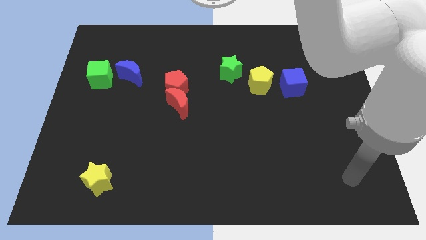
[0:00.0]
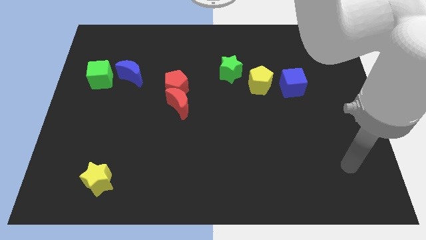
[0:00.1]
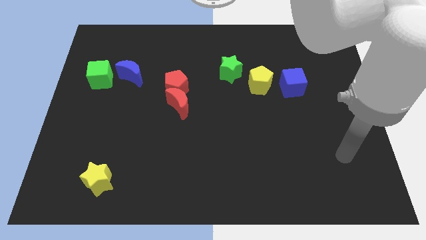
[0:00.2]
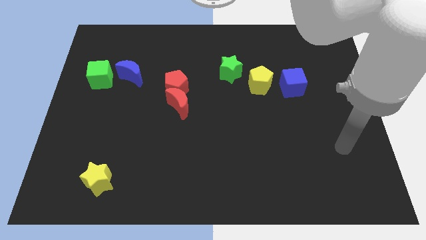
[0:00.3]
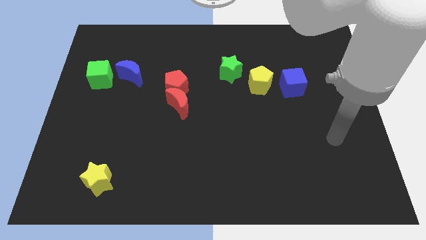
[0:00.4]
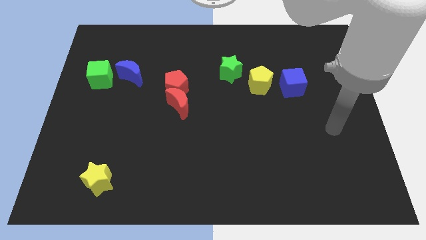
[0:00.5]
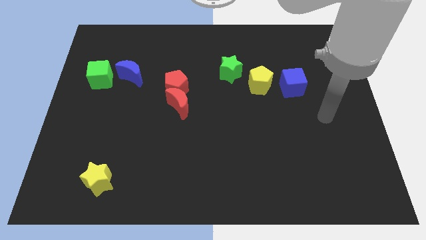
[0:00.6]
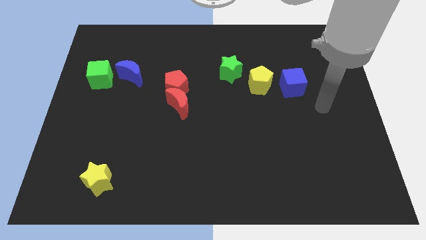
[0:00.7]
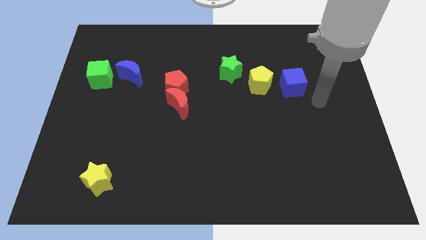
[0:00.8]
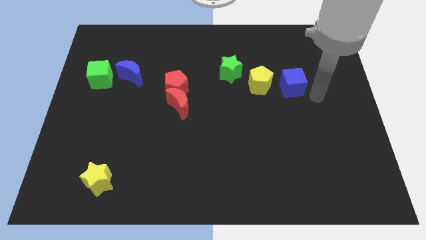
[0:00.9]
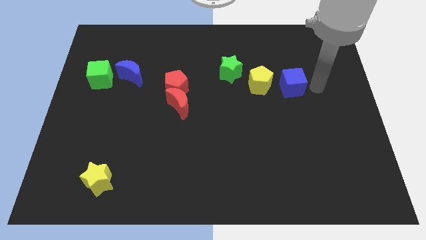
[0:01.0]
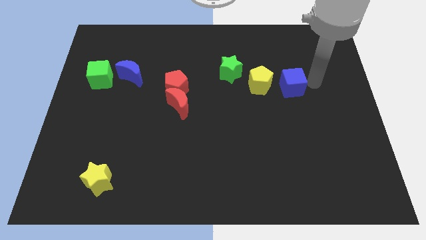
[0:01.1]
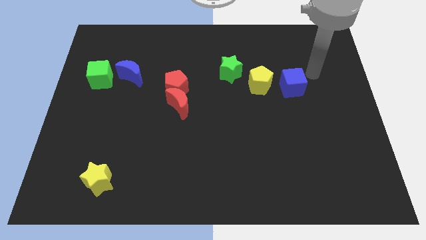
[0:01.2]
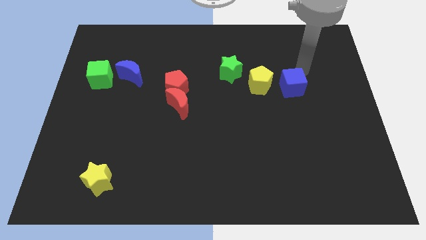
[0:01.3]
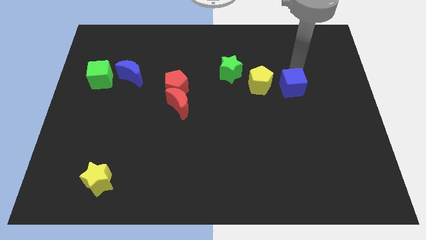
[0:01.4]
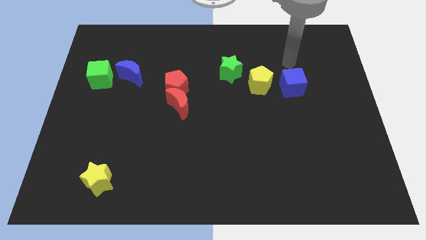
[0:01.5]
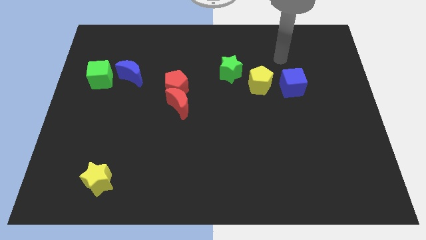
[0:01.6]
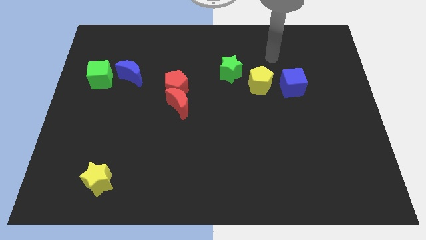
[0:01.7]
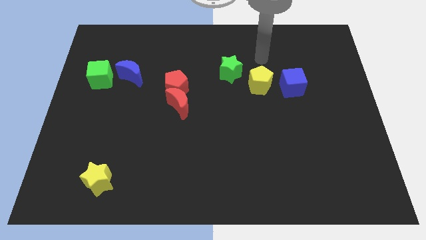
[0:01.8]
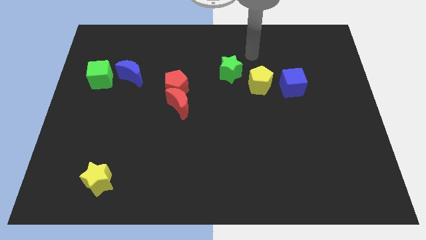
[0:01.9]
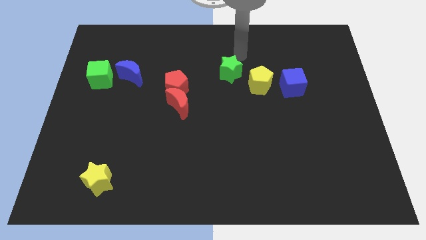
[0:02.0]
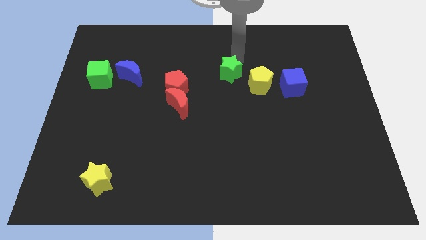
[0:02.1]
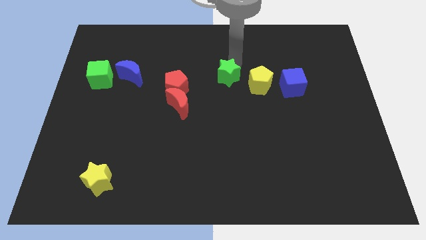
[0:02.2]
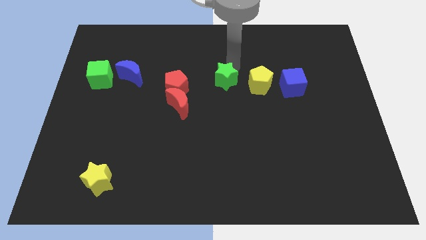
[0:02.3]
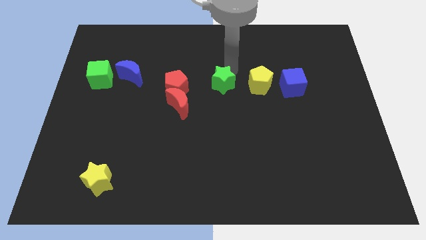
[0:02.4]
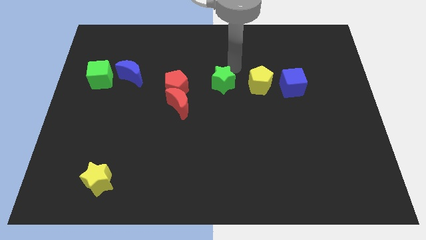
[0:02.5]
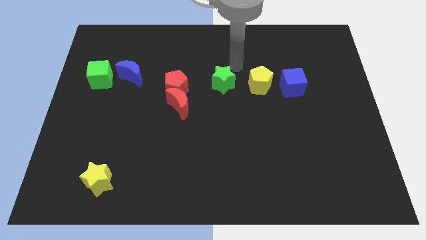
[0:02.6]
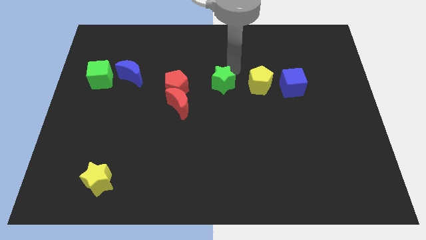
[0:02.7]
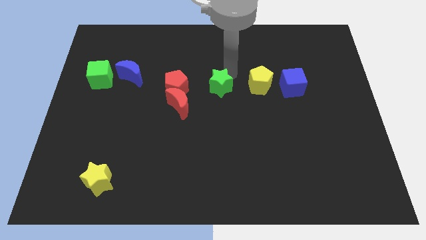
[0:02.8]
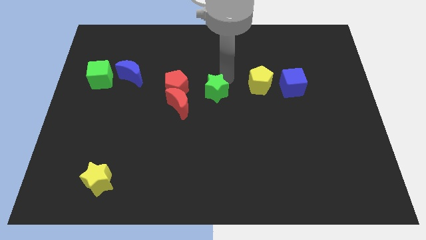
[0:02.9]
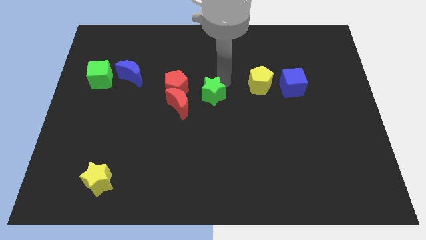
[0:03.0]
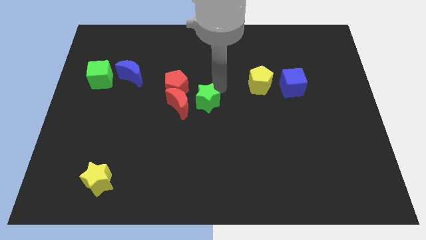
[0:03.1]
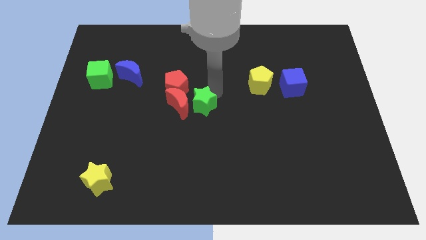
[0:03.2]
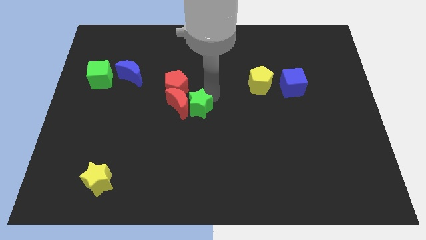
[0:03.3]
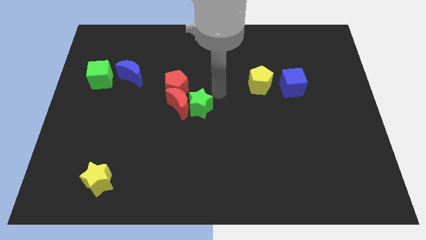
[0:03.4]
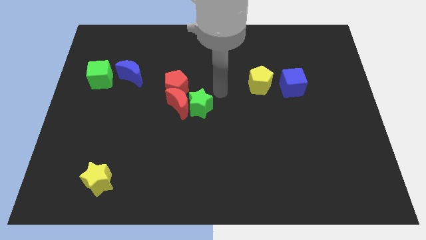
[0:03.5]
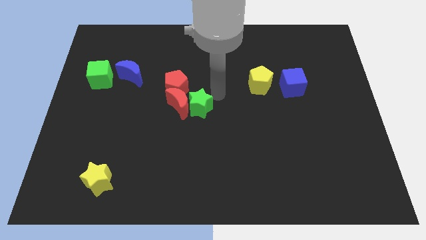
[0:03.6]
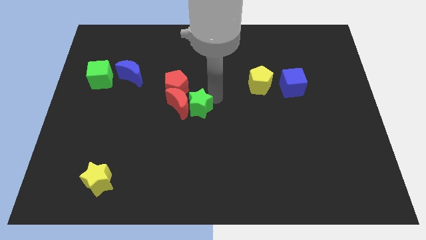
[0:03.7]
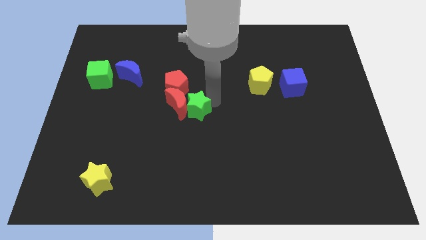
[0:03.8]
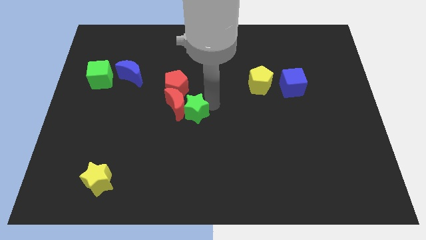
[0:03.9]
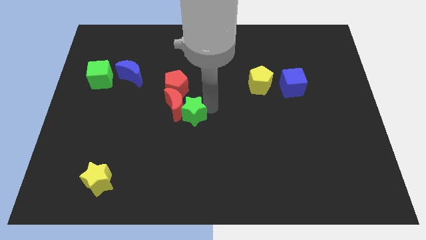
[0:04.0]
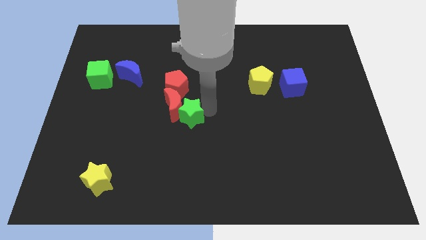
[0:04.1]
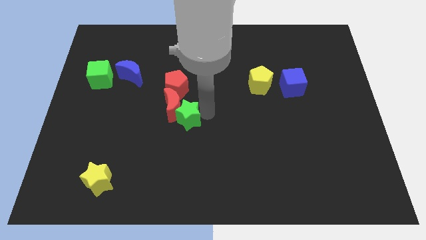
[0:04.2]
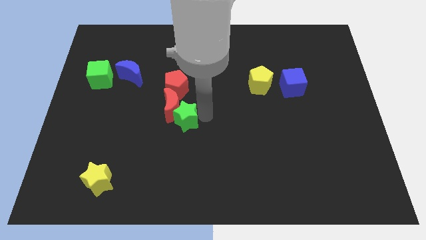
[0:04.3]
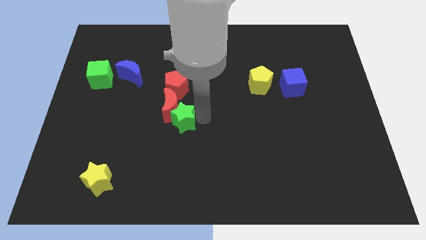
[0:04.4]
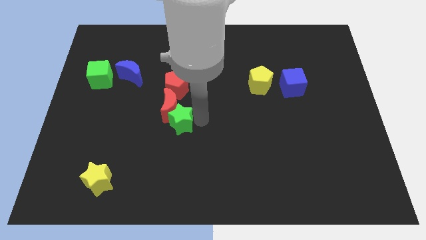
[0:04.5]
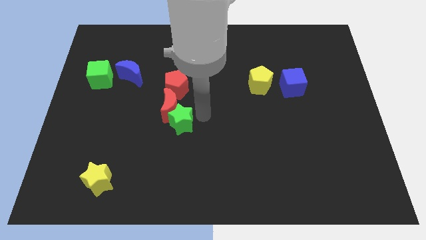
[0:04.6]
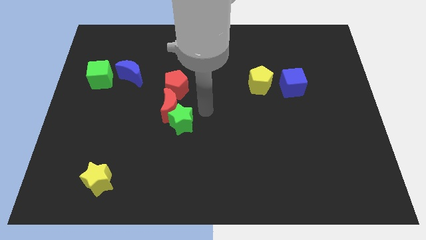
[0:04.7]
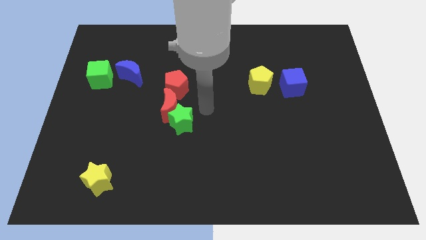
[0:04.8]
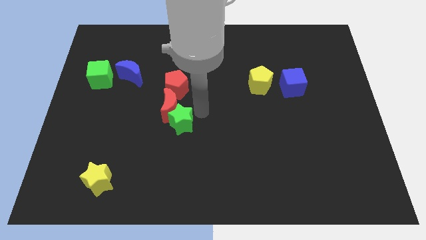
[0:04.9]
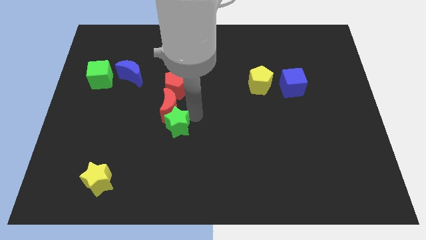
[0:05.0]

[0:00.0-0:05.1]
slide the green star down and then to the left

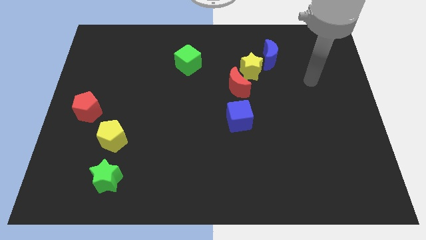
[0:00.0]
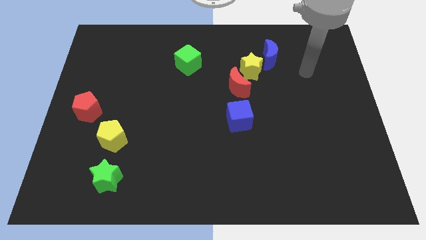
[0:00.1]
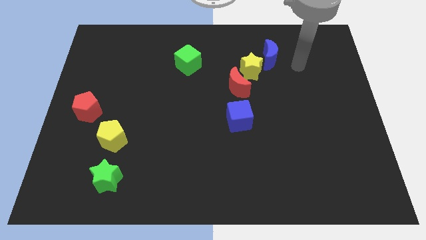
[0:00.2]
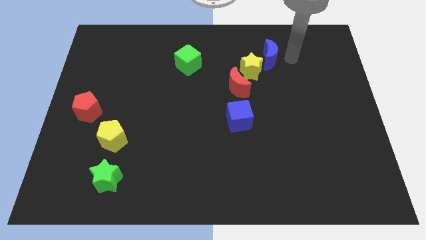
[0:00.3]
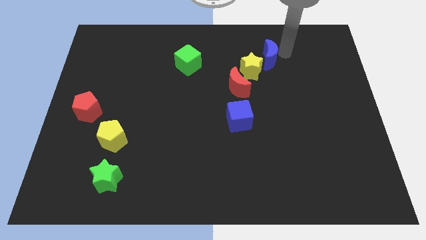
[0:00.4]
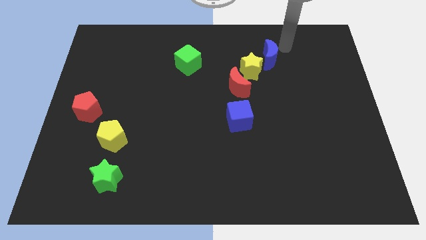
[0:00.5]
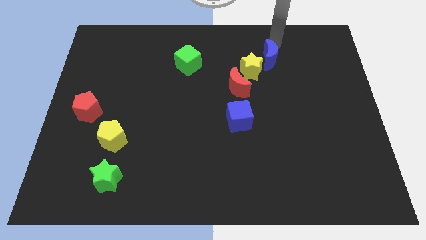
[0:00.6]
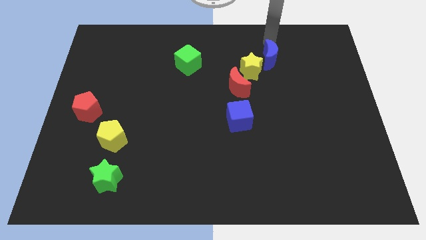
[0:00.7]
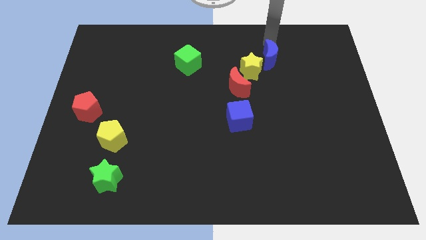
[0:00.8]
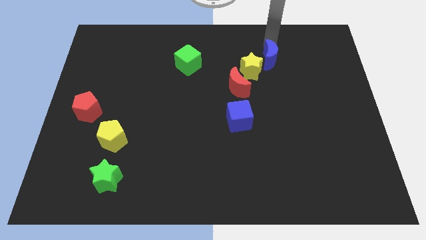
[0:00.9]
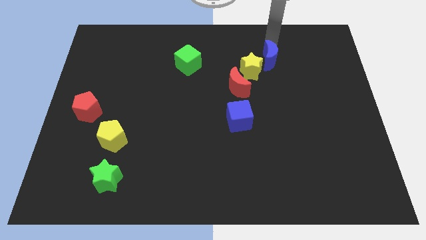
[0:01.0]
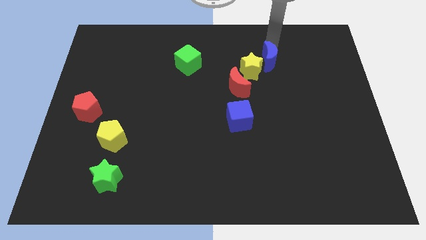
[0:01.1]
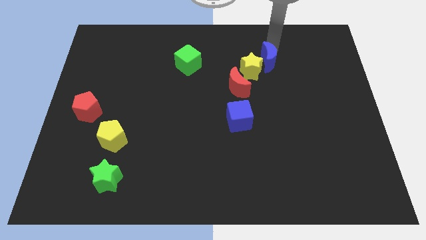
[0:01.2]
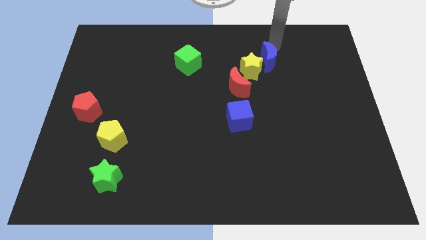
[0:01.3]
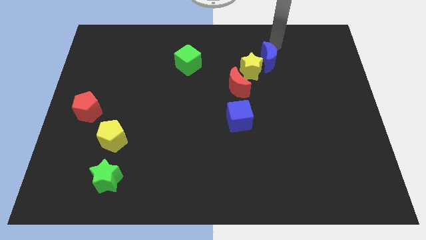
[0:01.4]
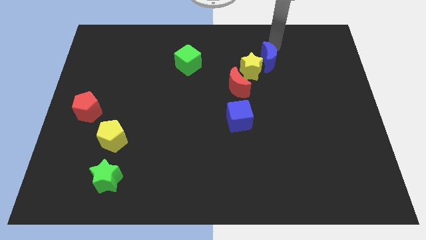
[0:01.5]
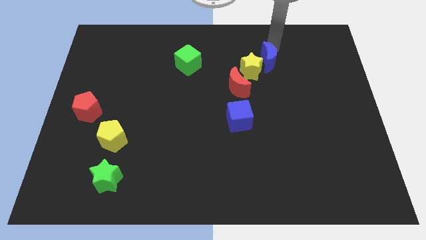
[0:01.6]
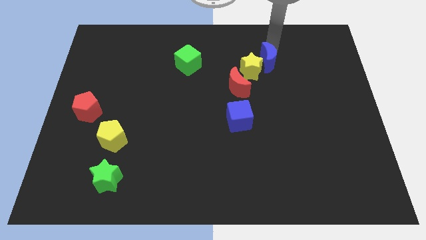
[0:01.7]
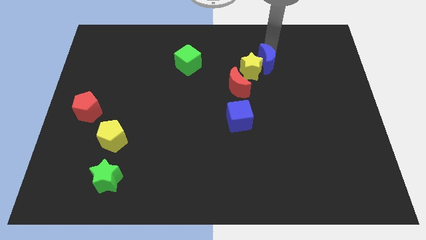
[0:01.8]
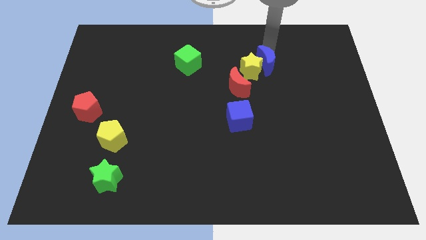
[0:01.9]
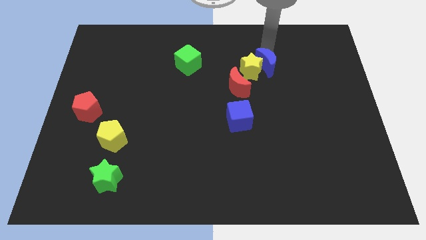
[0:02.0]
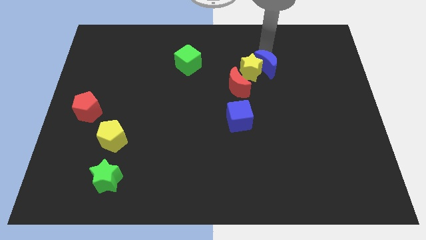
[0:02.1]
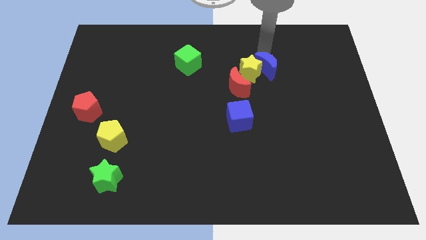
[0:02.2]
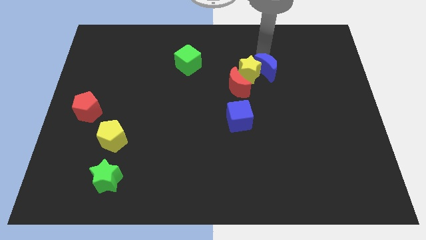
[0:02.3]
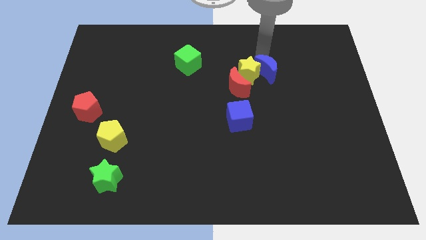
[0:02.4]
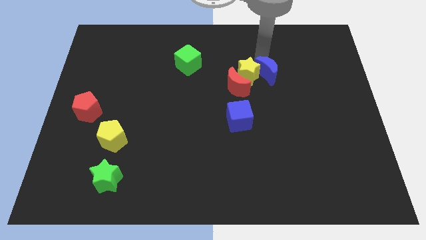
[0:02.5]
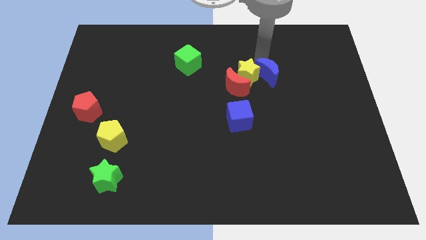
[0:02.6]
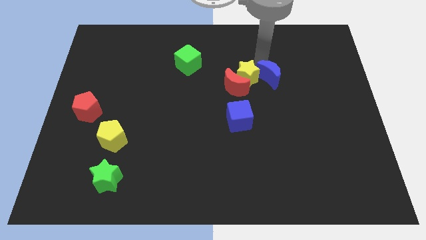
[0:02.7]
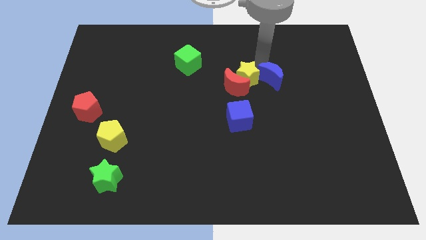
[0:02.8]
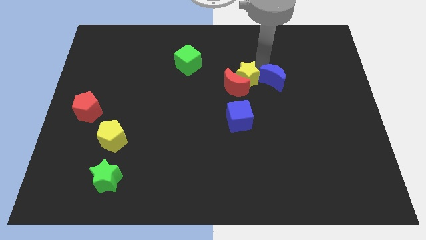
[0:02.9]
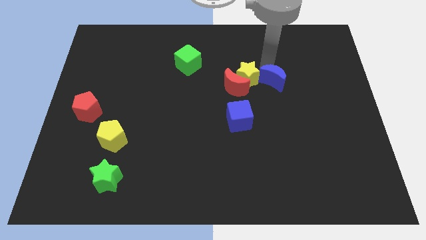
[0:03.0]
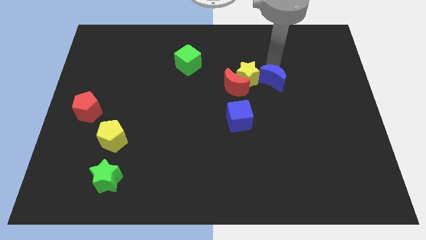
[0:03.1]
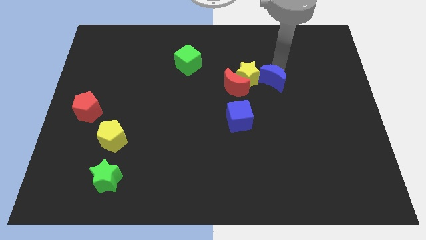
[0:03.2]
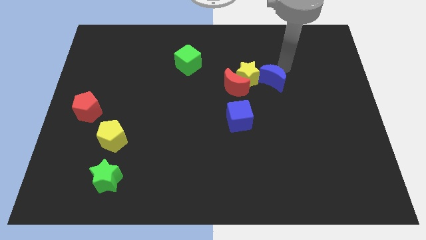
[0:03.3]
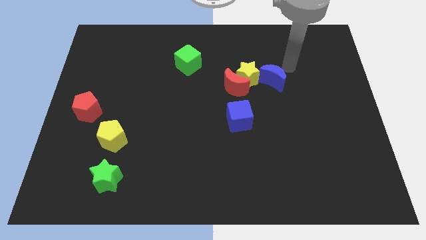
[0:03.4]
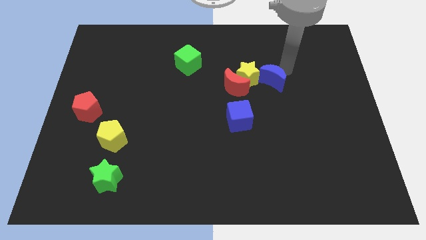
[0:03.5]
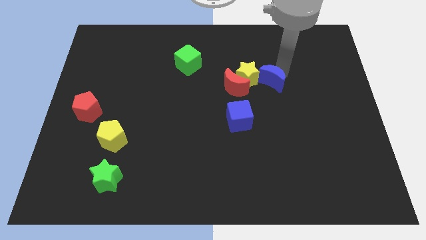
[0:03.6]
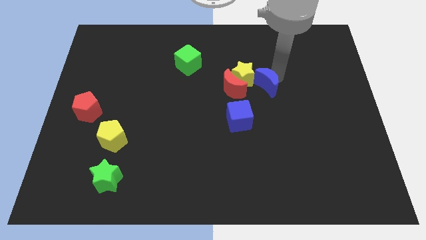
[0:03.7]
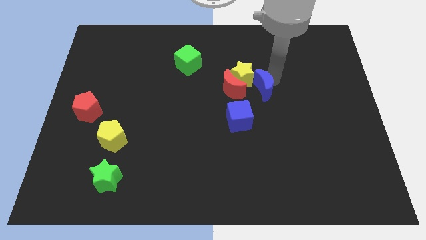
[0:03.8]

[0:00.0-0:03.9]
slide the blue moon a little diagonally down and to the left
